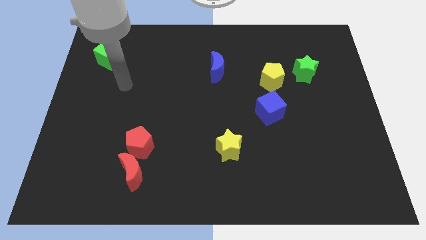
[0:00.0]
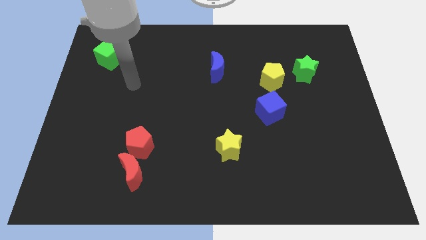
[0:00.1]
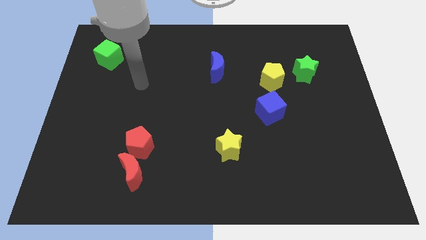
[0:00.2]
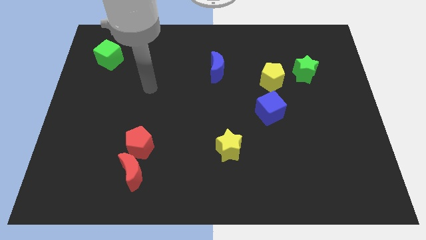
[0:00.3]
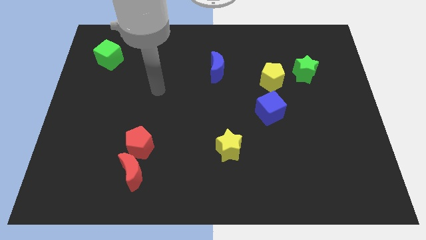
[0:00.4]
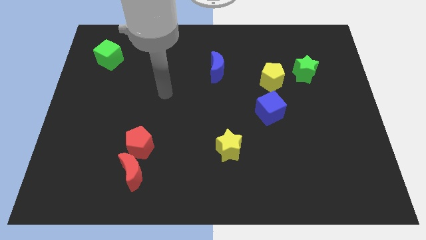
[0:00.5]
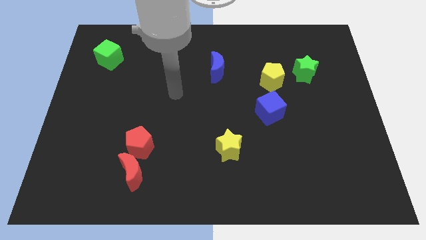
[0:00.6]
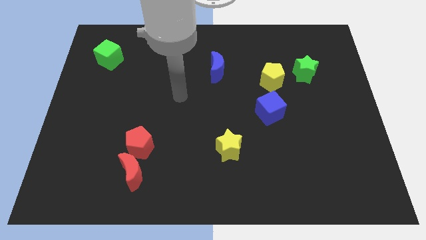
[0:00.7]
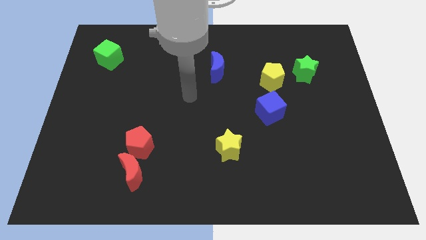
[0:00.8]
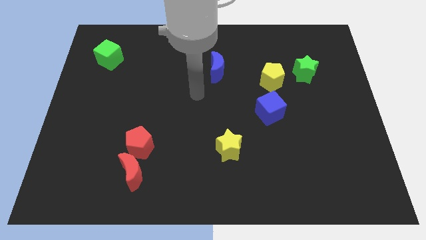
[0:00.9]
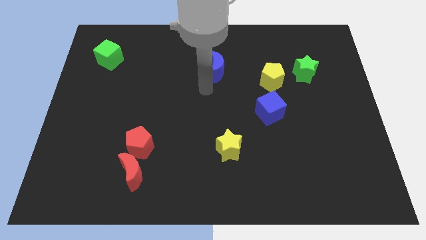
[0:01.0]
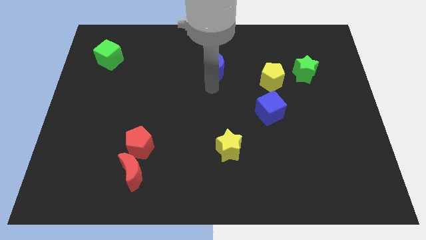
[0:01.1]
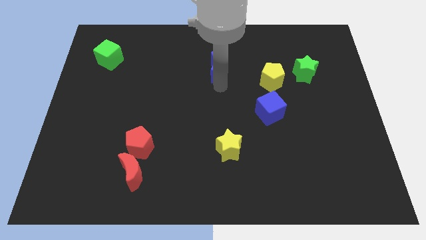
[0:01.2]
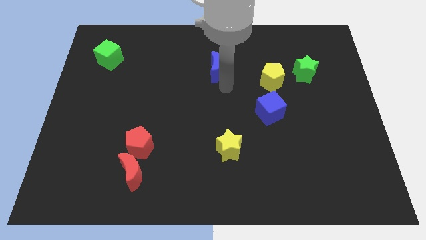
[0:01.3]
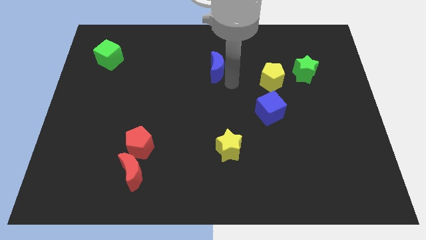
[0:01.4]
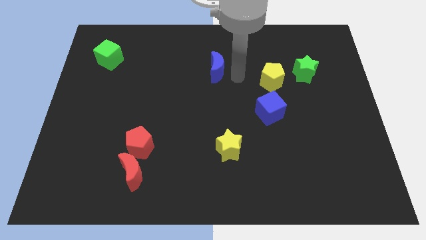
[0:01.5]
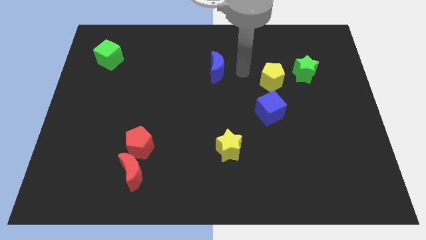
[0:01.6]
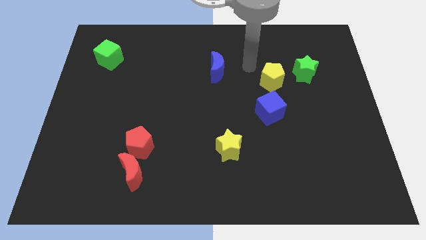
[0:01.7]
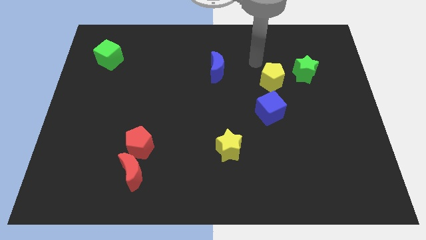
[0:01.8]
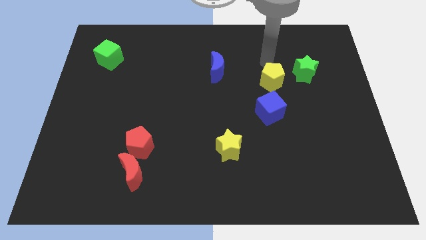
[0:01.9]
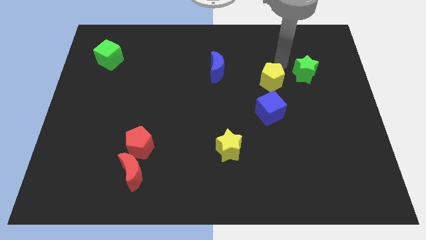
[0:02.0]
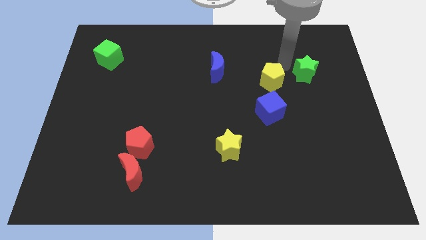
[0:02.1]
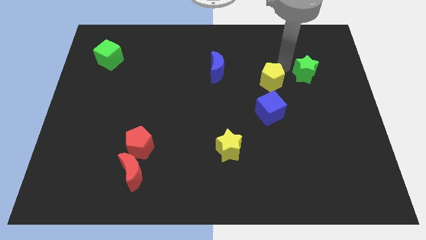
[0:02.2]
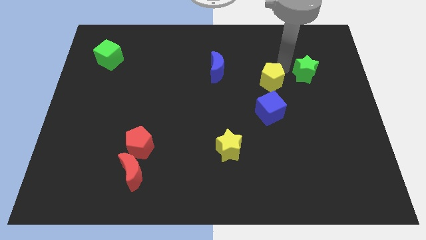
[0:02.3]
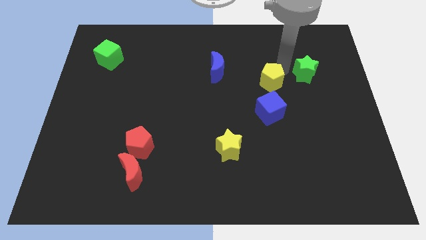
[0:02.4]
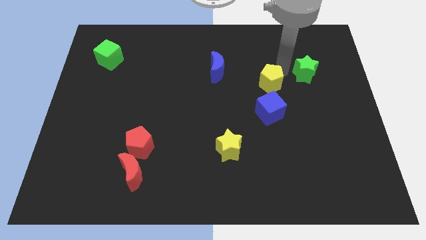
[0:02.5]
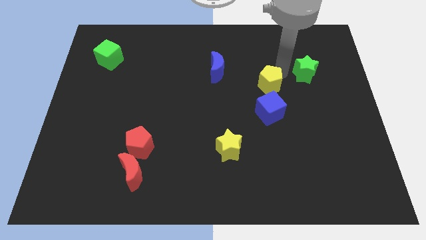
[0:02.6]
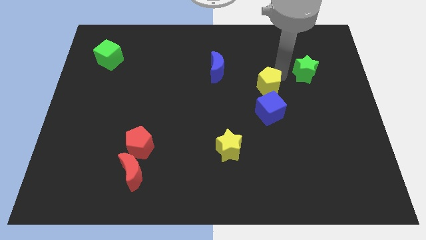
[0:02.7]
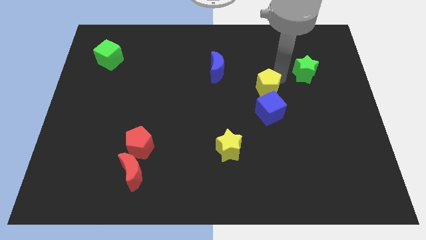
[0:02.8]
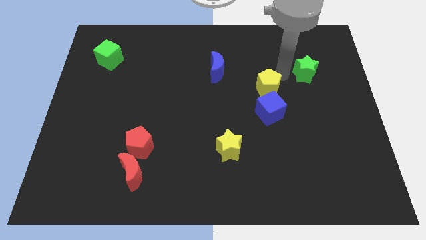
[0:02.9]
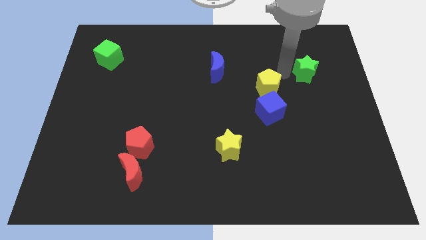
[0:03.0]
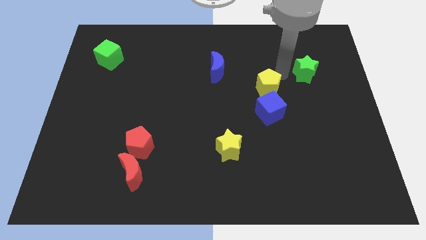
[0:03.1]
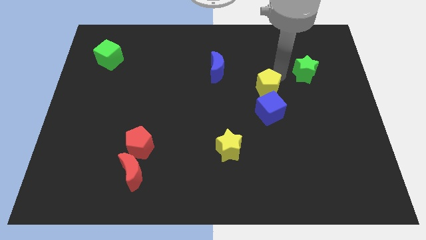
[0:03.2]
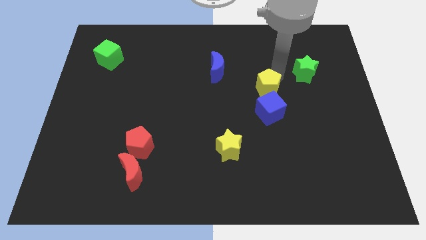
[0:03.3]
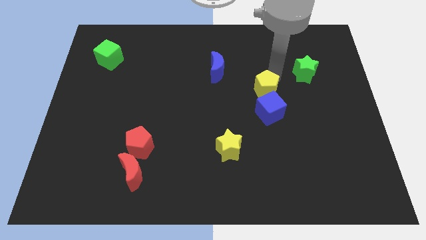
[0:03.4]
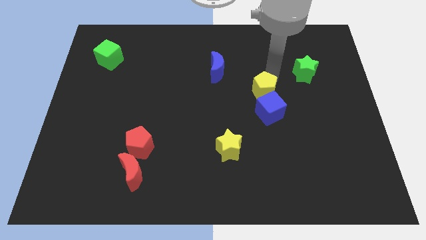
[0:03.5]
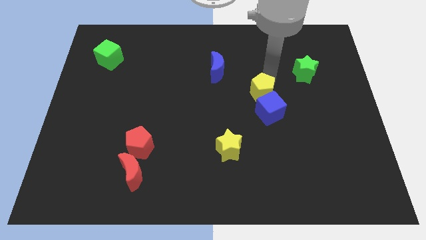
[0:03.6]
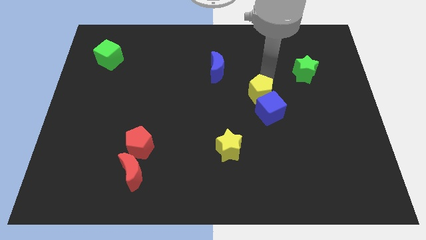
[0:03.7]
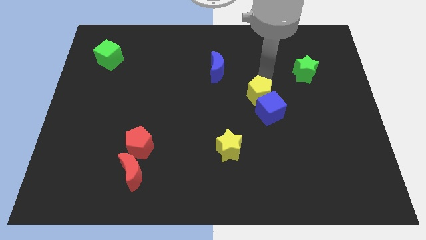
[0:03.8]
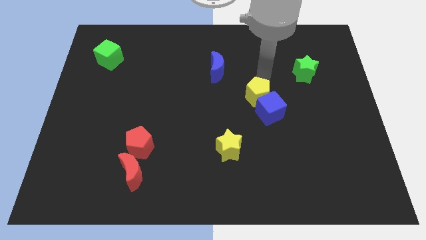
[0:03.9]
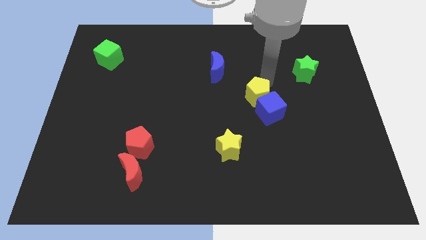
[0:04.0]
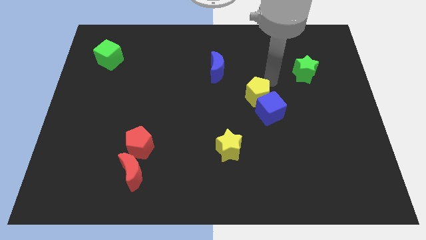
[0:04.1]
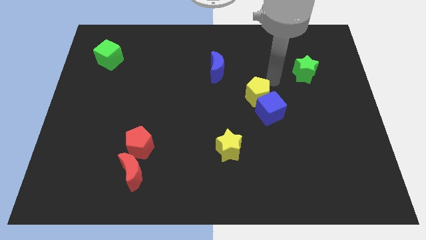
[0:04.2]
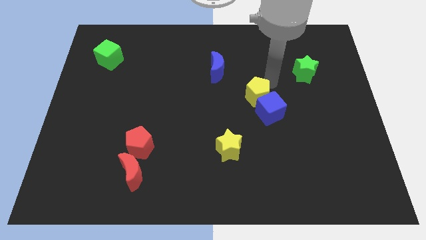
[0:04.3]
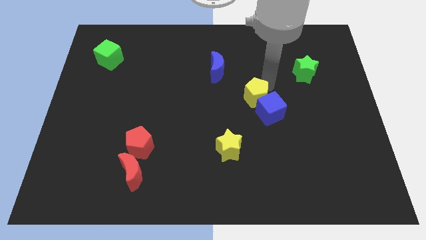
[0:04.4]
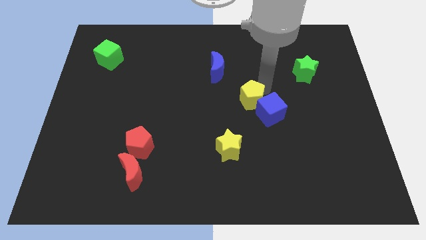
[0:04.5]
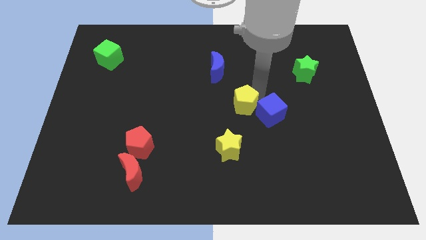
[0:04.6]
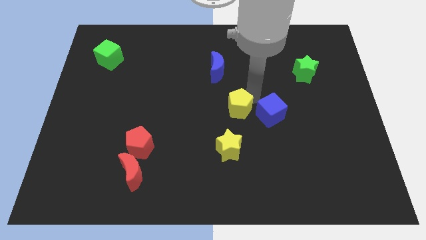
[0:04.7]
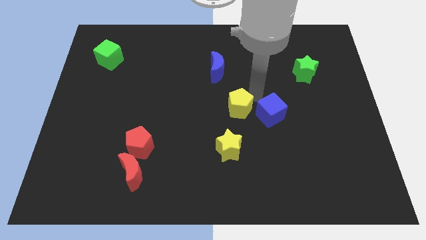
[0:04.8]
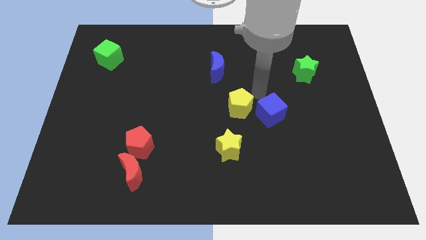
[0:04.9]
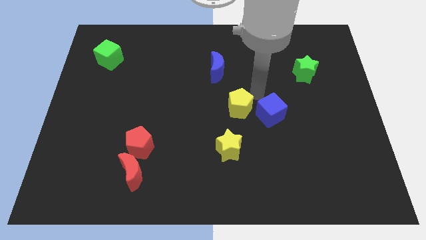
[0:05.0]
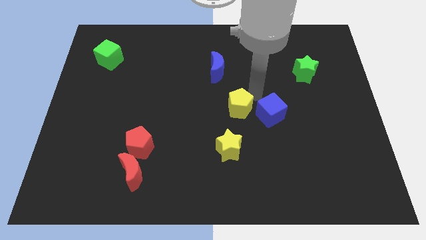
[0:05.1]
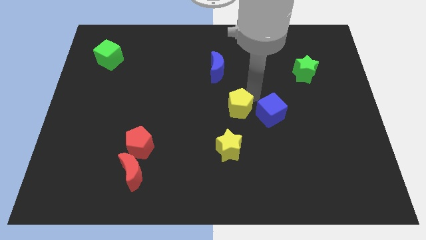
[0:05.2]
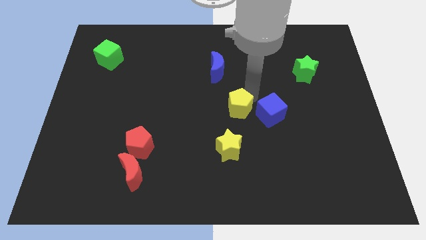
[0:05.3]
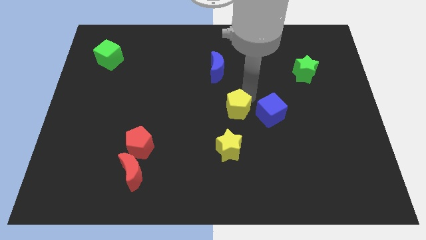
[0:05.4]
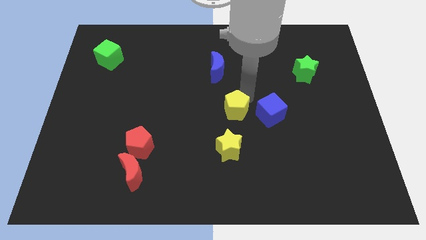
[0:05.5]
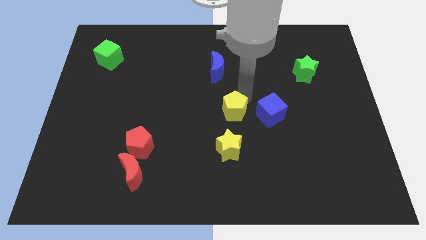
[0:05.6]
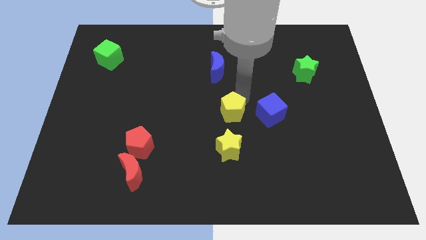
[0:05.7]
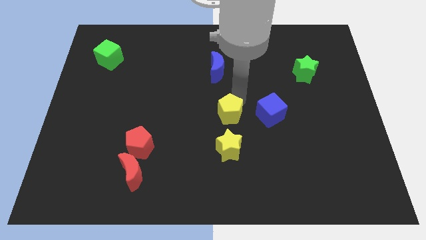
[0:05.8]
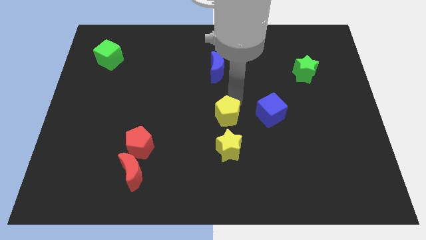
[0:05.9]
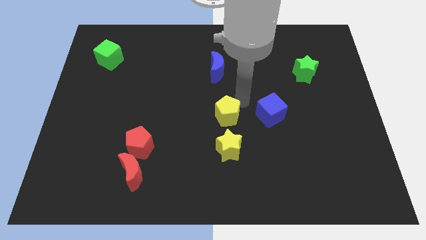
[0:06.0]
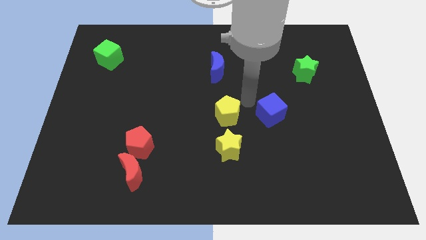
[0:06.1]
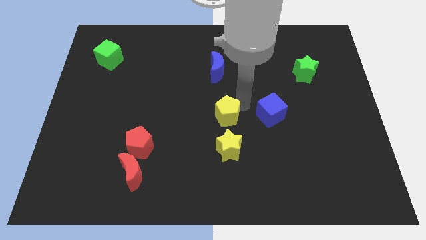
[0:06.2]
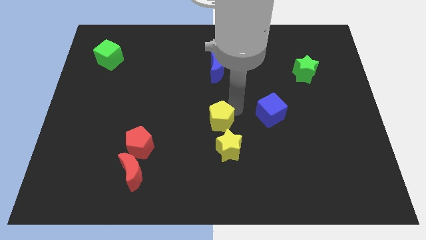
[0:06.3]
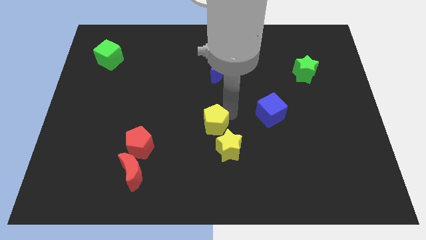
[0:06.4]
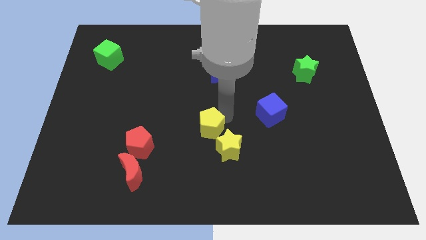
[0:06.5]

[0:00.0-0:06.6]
slide the yellow pentagon downwards and then left

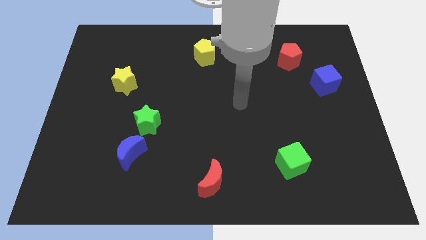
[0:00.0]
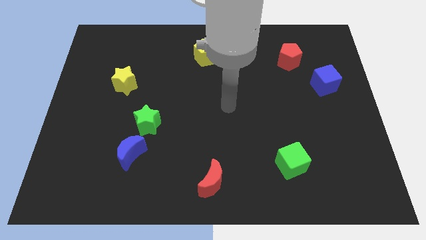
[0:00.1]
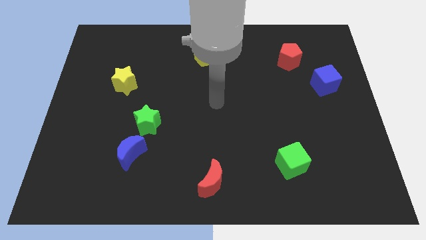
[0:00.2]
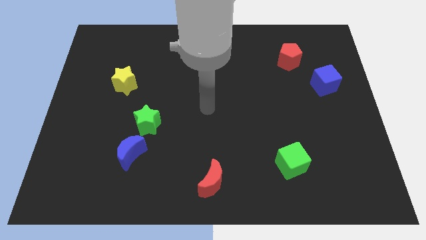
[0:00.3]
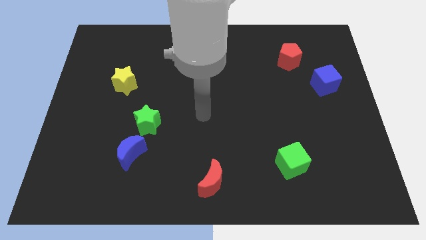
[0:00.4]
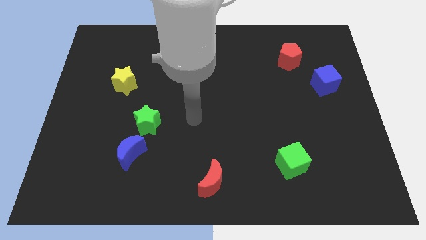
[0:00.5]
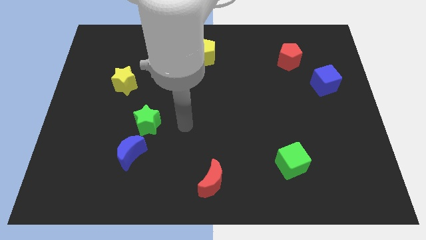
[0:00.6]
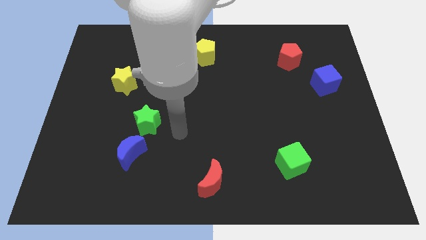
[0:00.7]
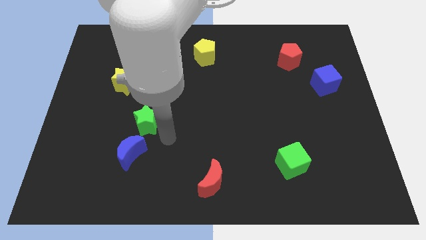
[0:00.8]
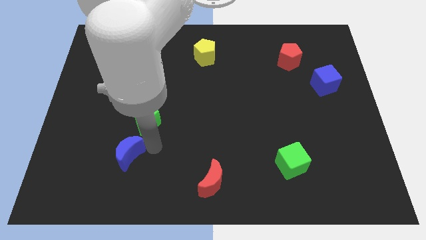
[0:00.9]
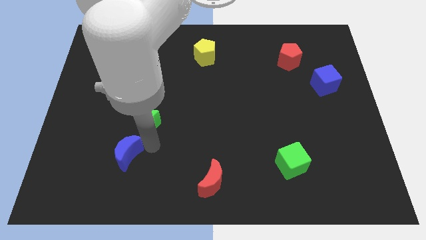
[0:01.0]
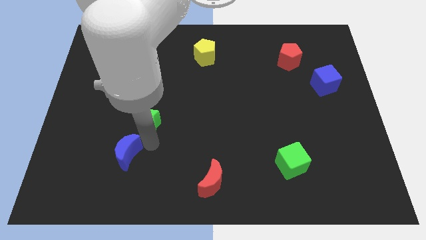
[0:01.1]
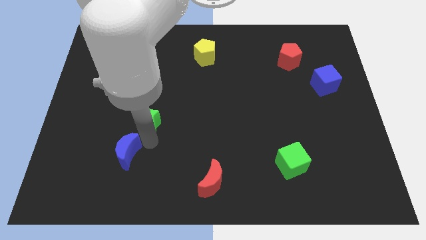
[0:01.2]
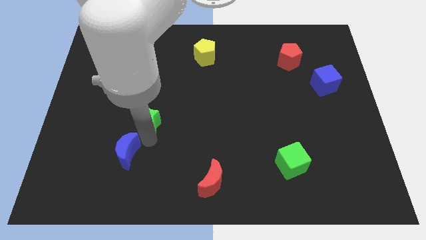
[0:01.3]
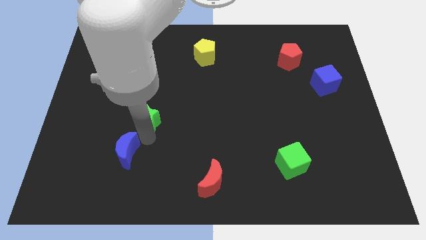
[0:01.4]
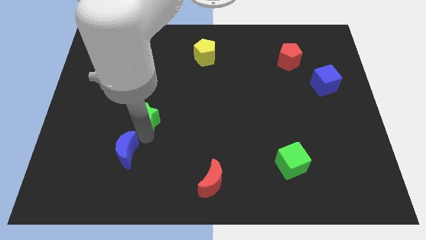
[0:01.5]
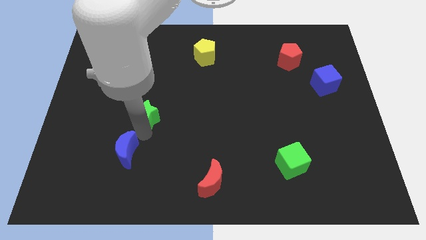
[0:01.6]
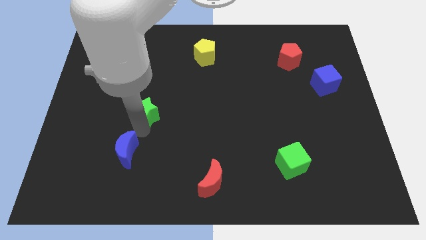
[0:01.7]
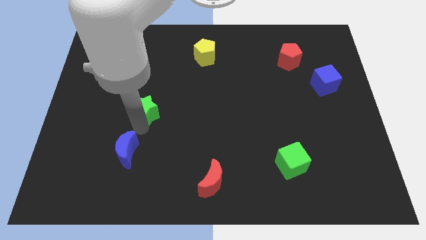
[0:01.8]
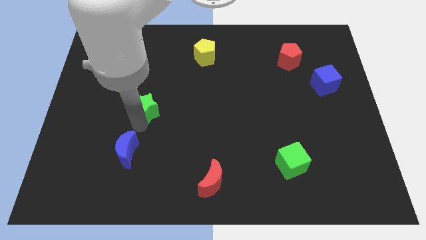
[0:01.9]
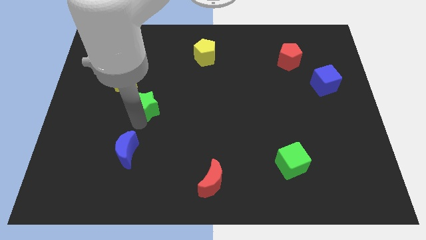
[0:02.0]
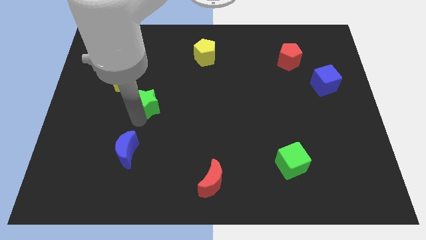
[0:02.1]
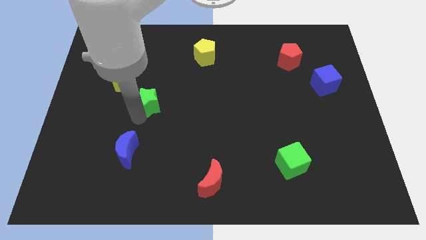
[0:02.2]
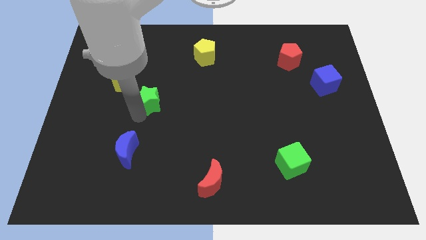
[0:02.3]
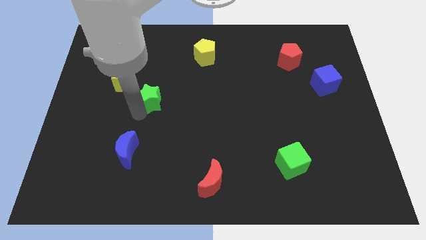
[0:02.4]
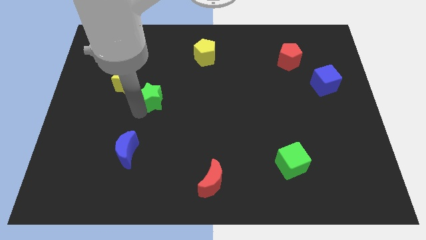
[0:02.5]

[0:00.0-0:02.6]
slide the green star up a little
